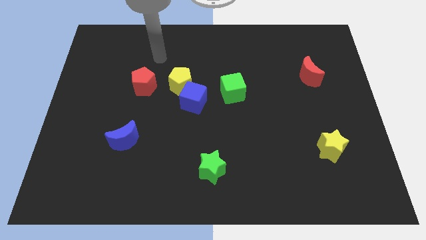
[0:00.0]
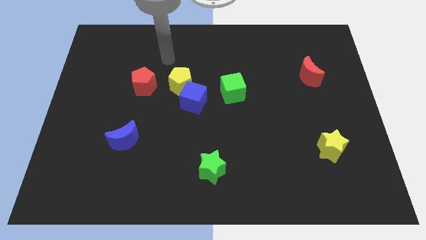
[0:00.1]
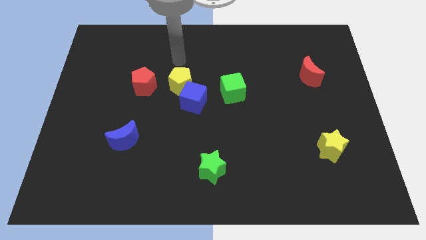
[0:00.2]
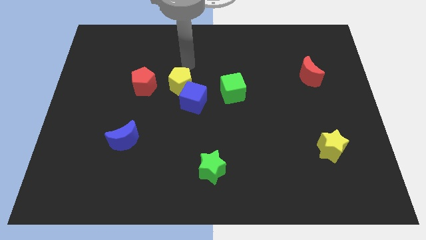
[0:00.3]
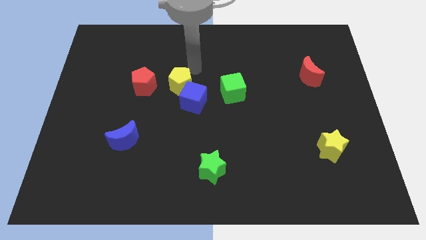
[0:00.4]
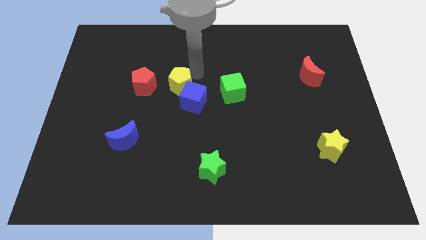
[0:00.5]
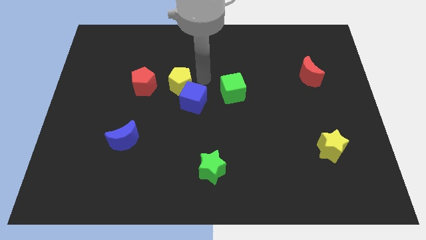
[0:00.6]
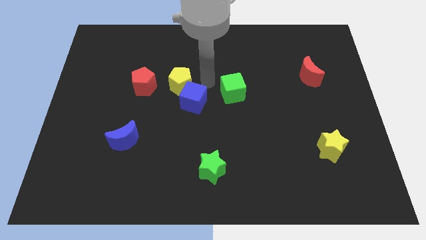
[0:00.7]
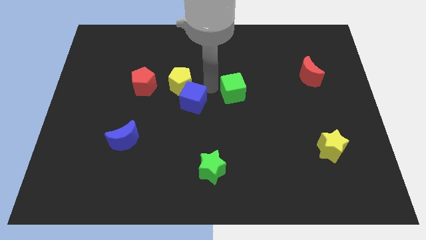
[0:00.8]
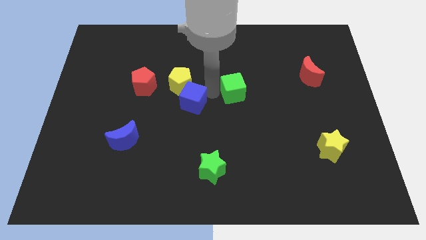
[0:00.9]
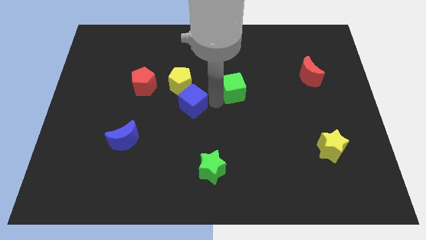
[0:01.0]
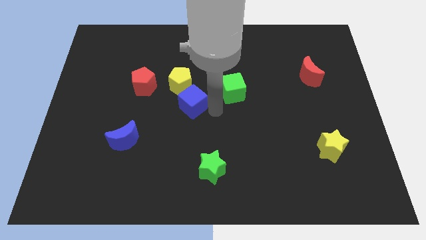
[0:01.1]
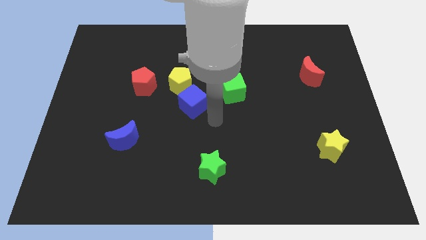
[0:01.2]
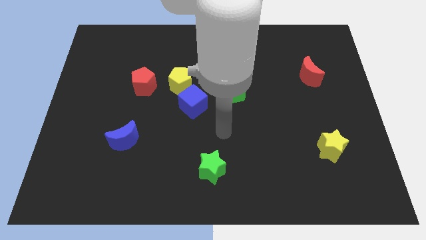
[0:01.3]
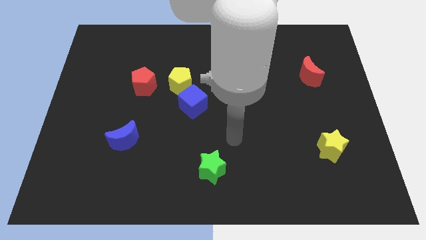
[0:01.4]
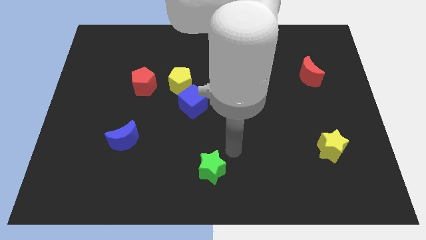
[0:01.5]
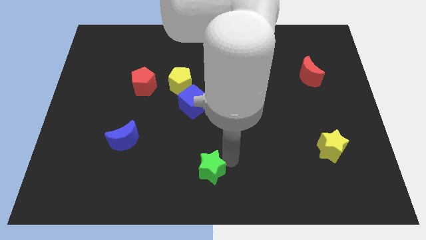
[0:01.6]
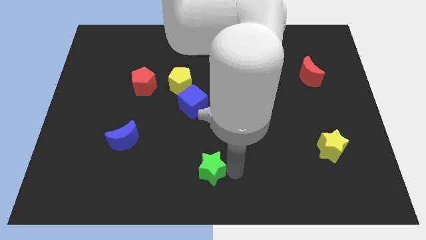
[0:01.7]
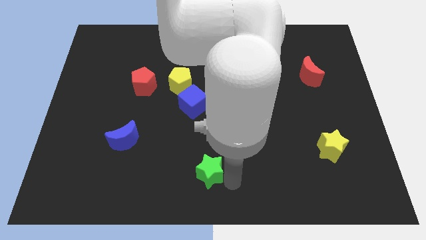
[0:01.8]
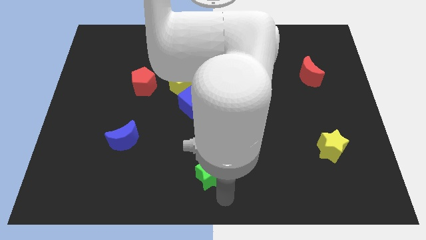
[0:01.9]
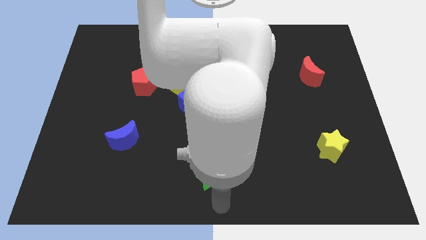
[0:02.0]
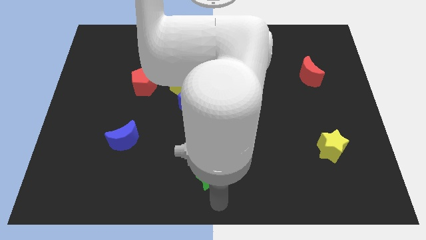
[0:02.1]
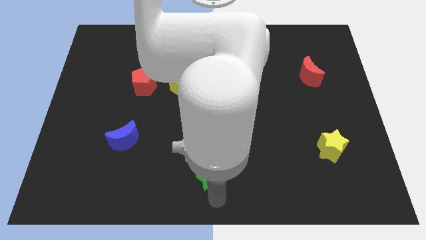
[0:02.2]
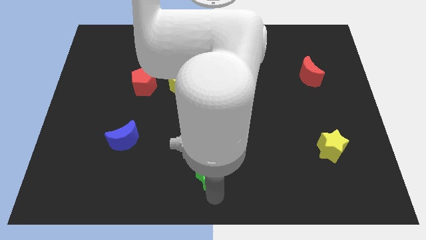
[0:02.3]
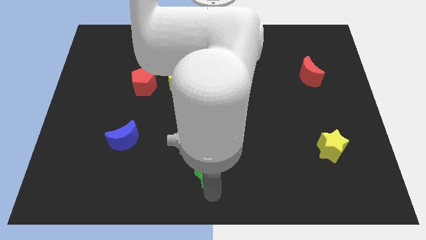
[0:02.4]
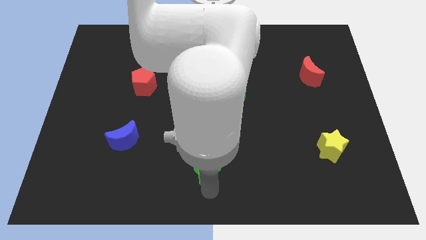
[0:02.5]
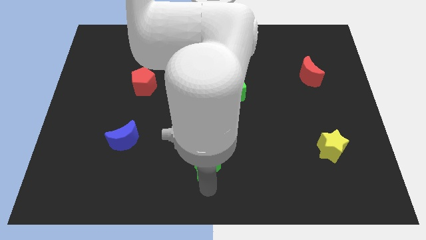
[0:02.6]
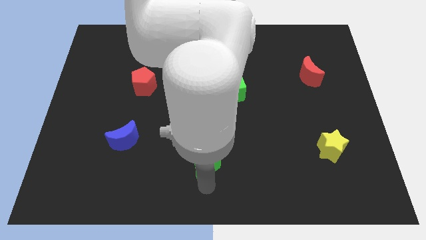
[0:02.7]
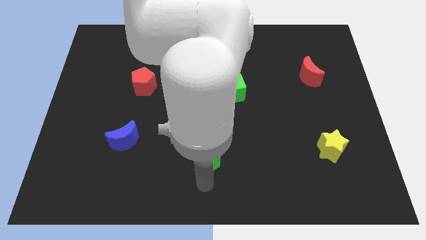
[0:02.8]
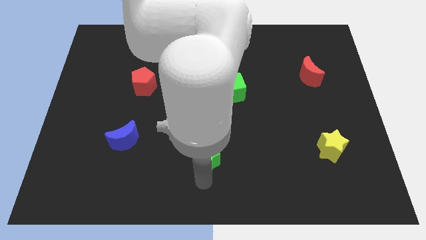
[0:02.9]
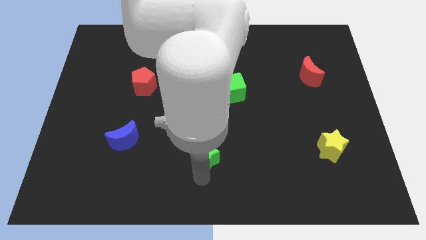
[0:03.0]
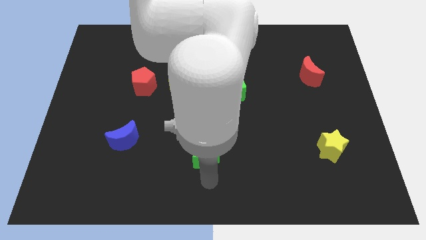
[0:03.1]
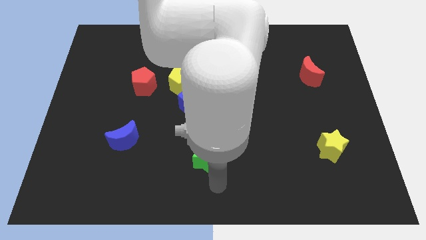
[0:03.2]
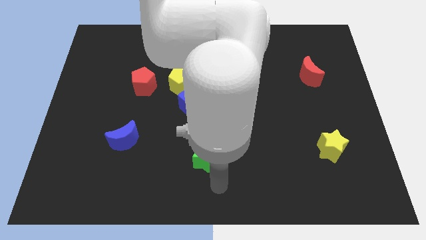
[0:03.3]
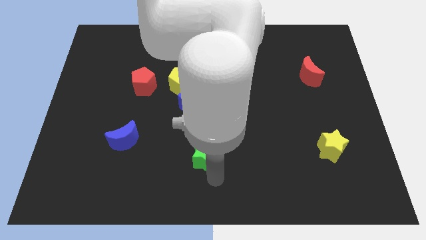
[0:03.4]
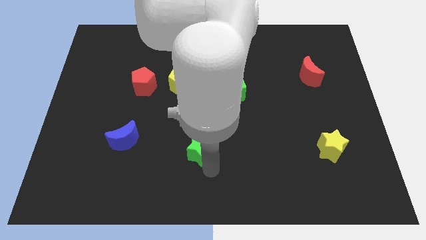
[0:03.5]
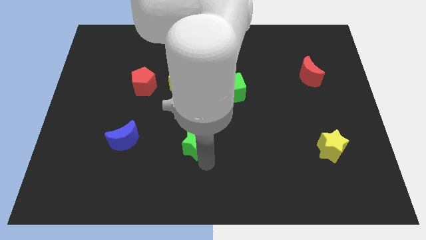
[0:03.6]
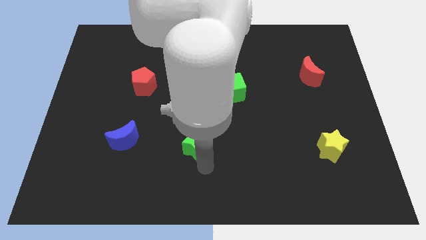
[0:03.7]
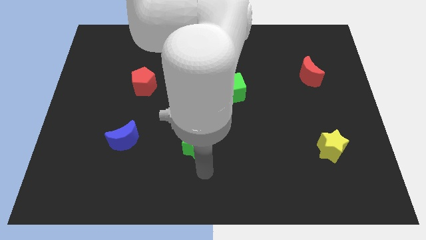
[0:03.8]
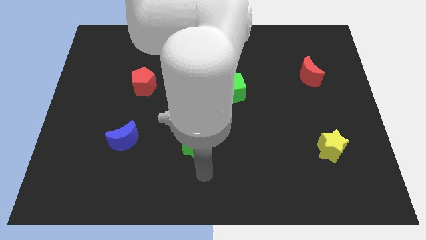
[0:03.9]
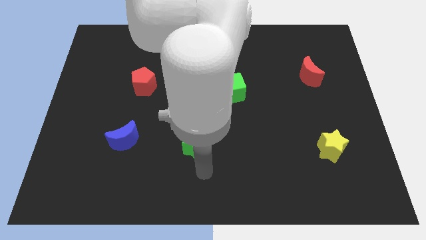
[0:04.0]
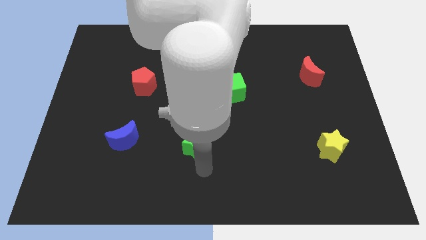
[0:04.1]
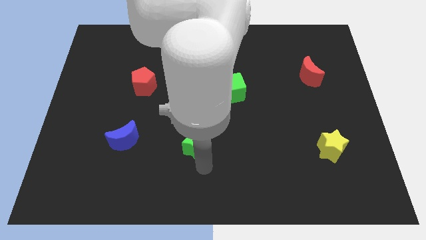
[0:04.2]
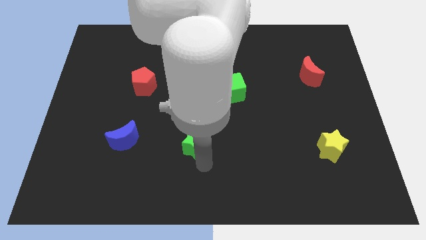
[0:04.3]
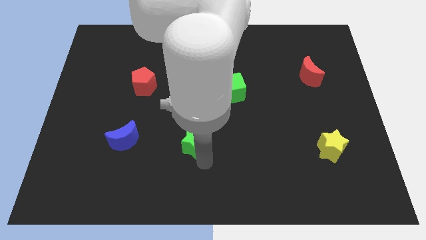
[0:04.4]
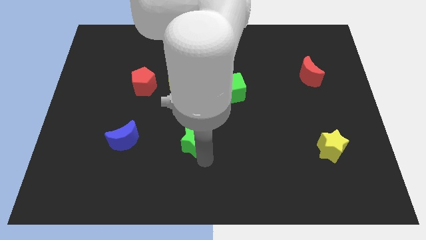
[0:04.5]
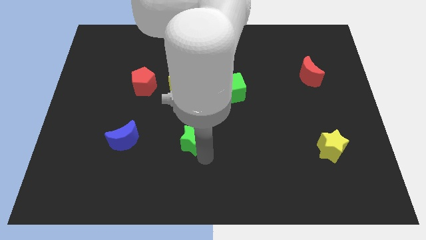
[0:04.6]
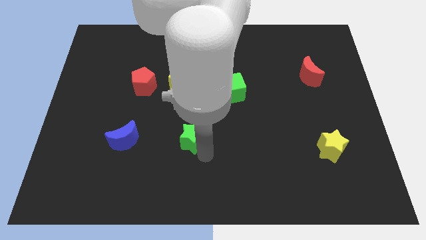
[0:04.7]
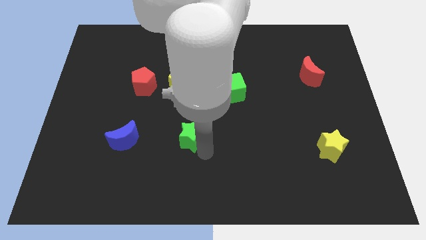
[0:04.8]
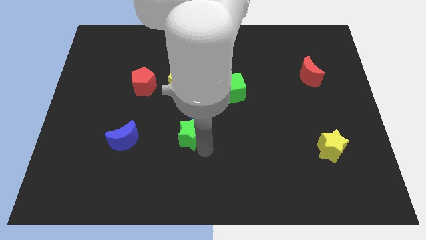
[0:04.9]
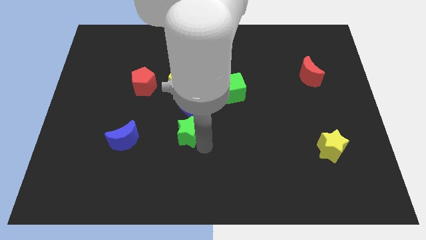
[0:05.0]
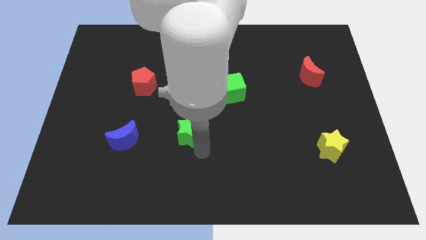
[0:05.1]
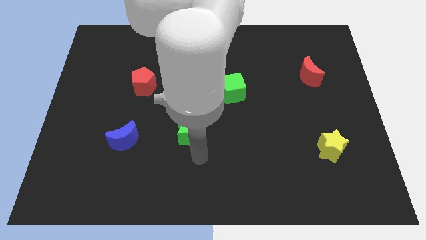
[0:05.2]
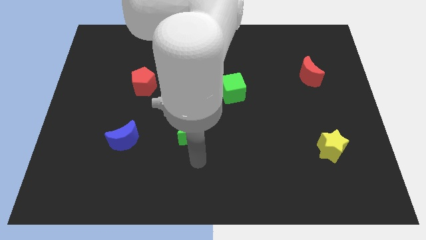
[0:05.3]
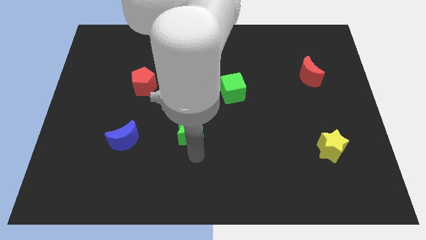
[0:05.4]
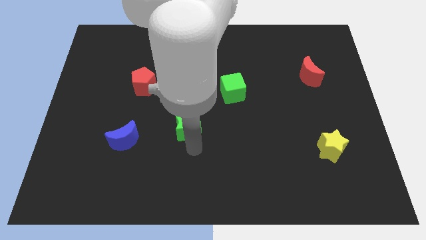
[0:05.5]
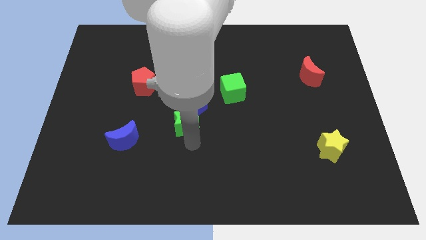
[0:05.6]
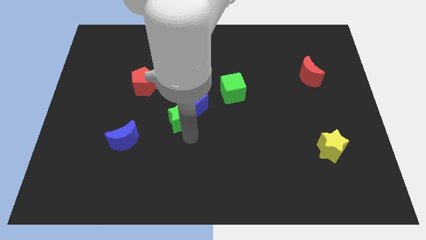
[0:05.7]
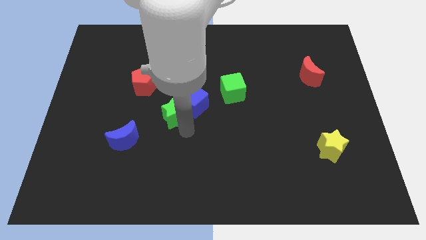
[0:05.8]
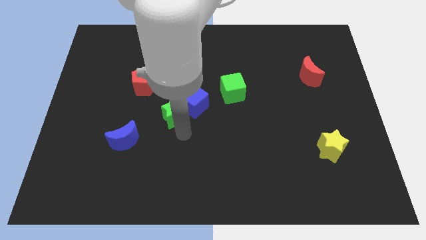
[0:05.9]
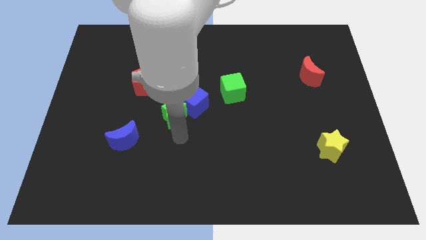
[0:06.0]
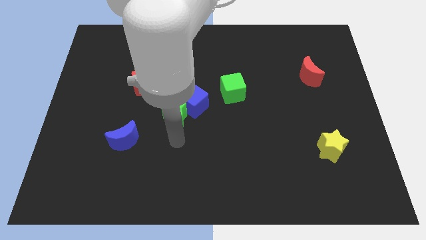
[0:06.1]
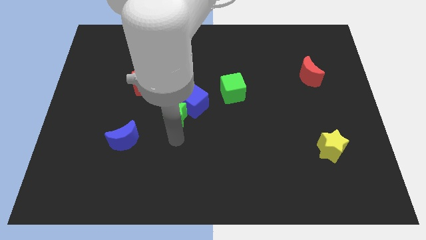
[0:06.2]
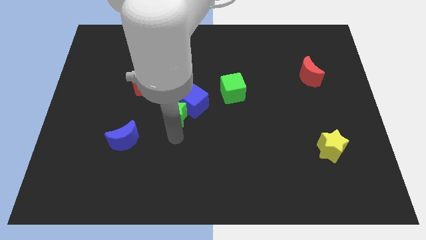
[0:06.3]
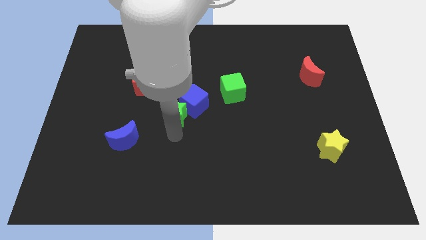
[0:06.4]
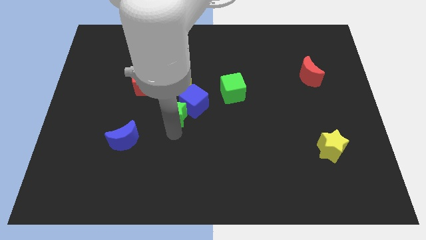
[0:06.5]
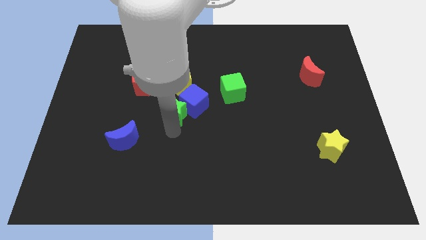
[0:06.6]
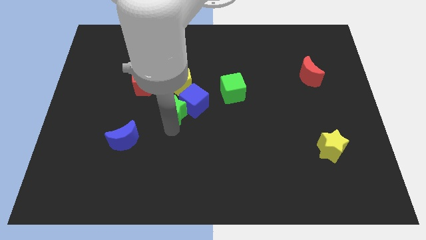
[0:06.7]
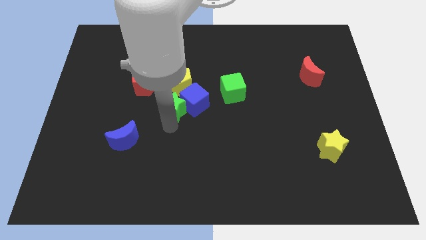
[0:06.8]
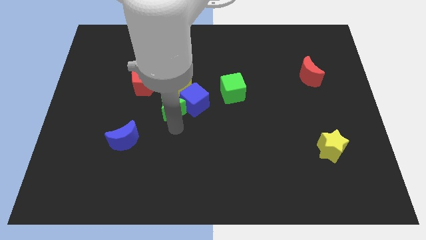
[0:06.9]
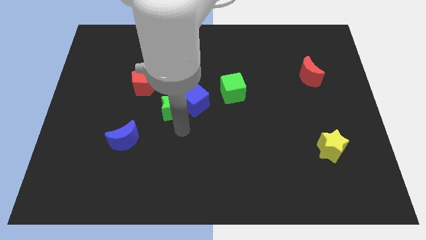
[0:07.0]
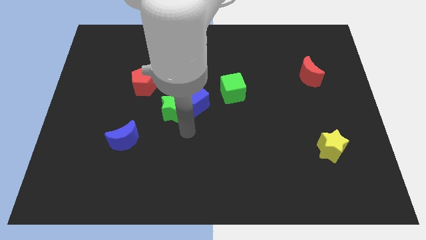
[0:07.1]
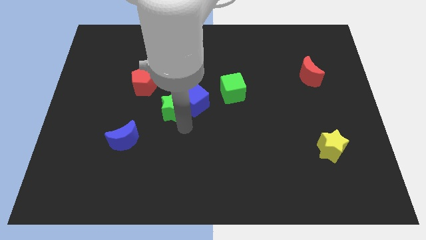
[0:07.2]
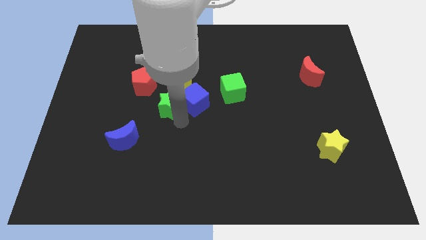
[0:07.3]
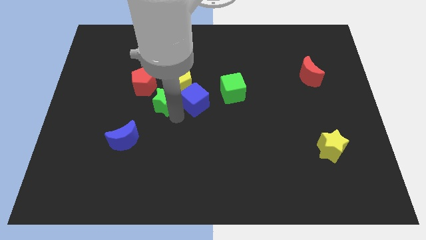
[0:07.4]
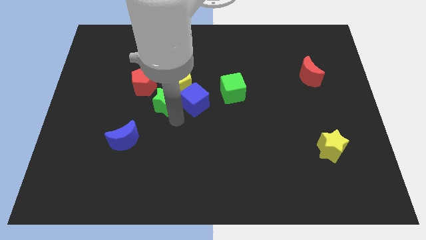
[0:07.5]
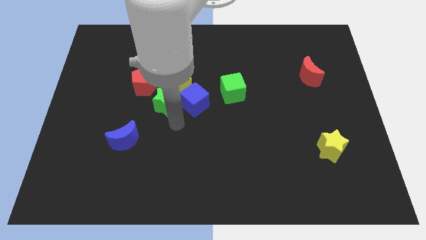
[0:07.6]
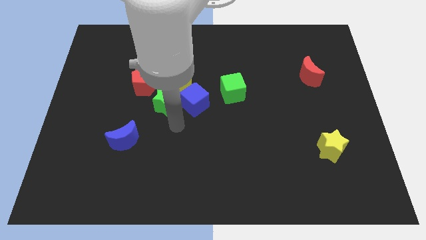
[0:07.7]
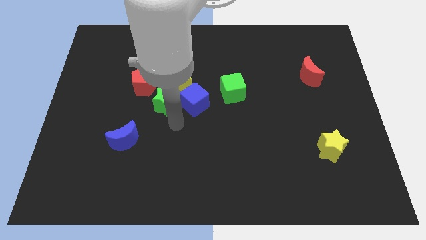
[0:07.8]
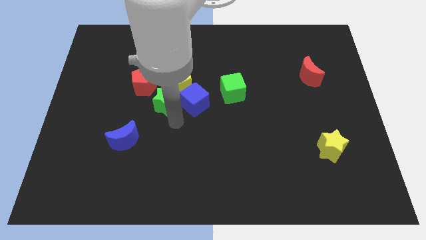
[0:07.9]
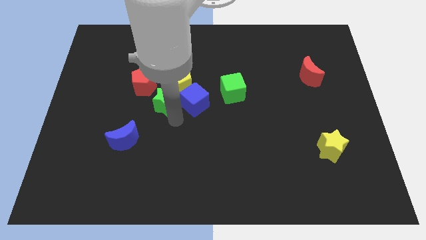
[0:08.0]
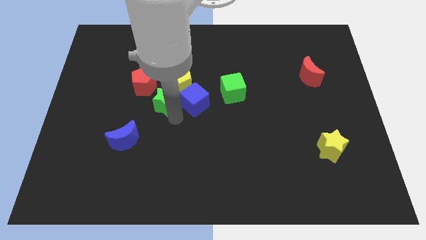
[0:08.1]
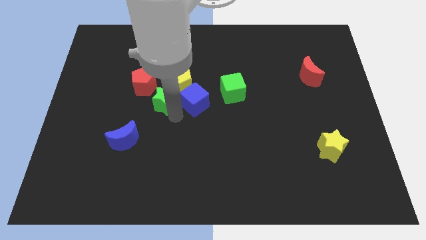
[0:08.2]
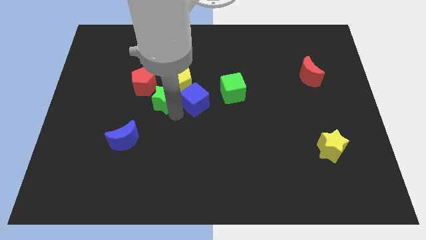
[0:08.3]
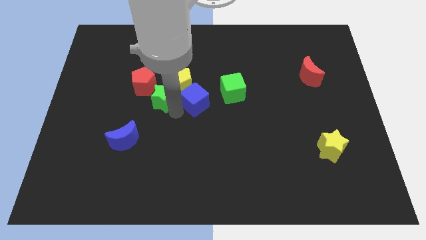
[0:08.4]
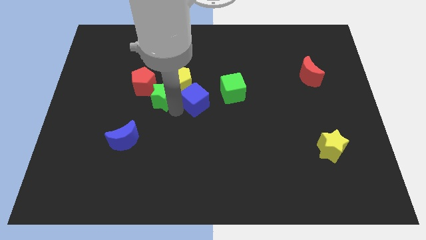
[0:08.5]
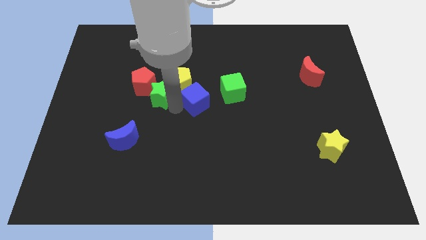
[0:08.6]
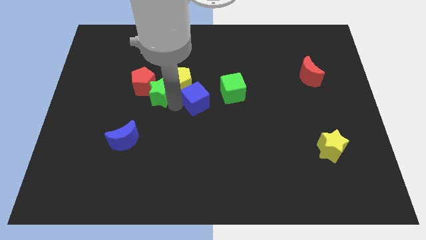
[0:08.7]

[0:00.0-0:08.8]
push the green star towards the red pentagon
